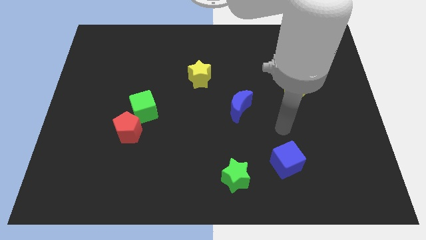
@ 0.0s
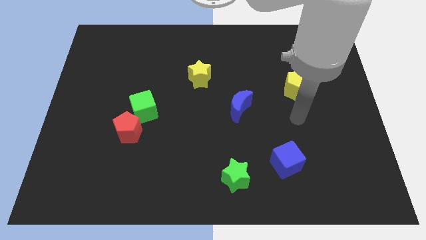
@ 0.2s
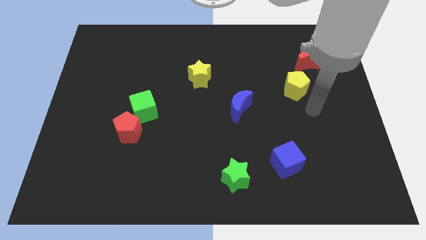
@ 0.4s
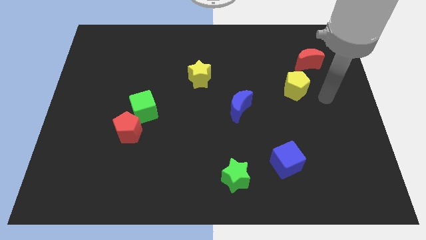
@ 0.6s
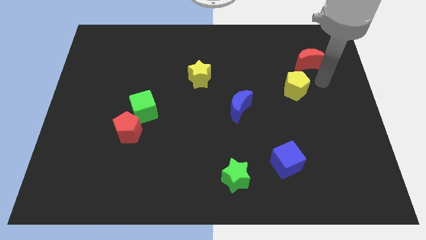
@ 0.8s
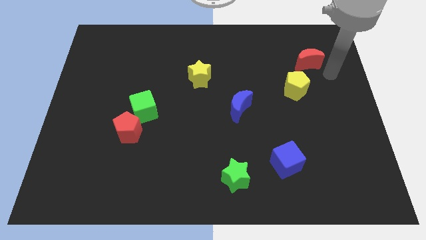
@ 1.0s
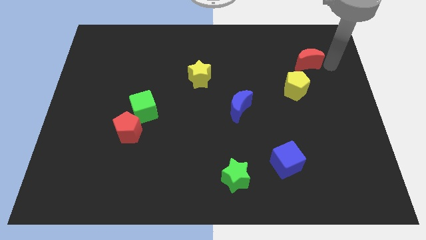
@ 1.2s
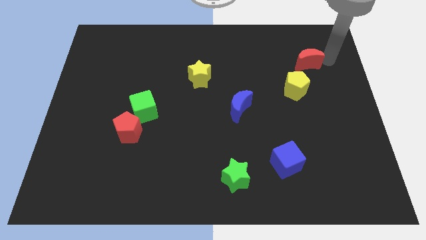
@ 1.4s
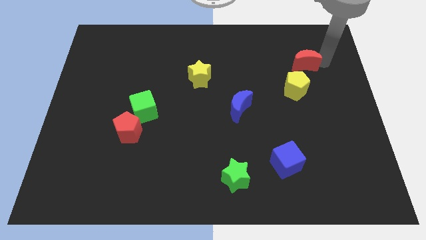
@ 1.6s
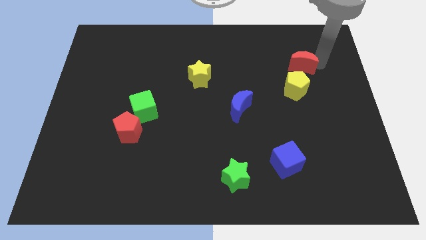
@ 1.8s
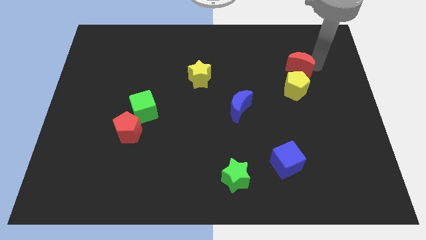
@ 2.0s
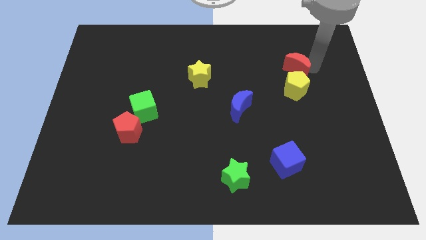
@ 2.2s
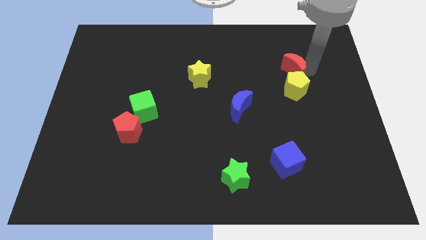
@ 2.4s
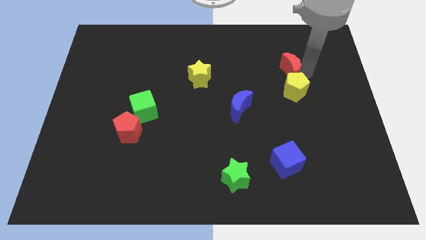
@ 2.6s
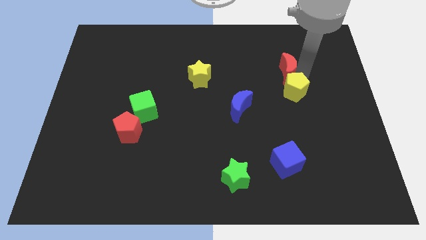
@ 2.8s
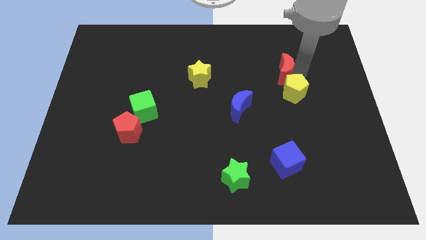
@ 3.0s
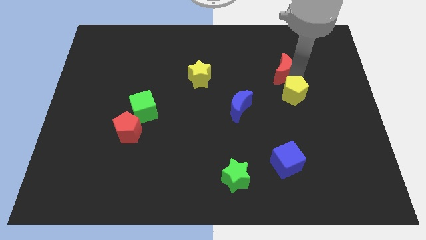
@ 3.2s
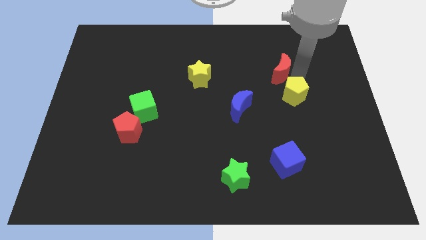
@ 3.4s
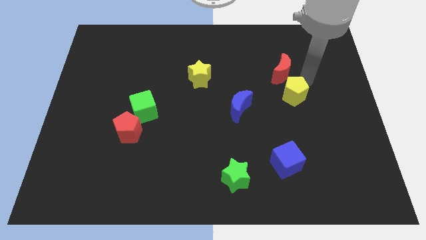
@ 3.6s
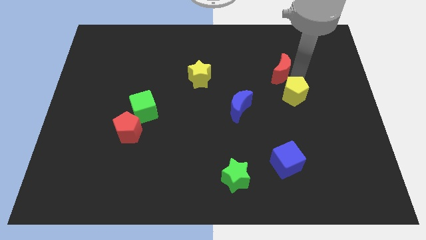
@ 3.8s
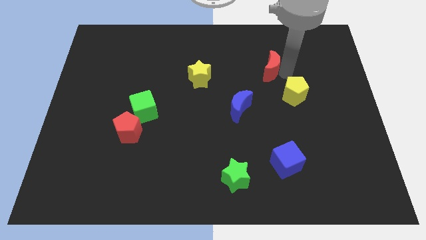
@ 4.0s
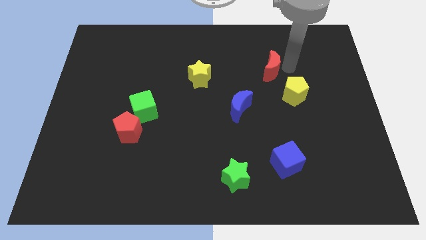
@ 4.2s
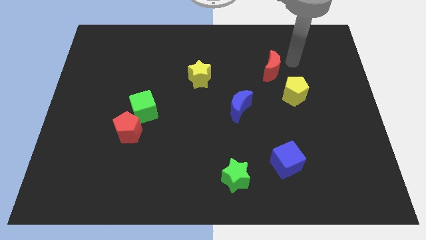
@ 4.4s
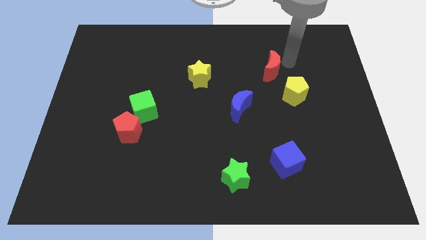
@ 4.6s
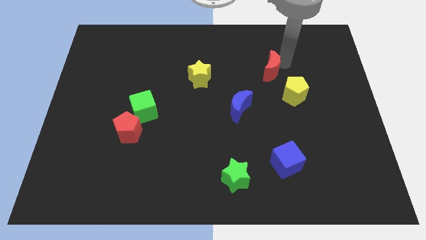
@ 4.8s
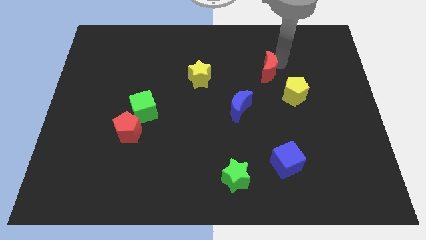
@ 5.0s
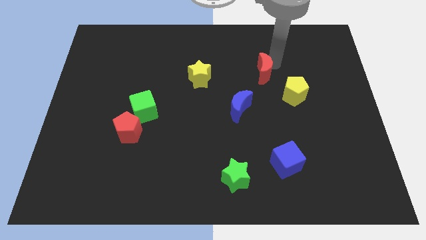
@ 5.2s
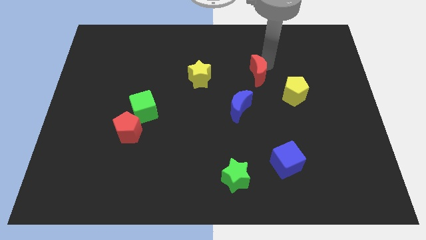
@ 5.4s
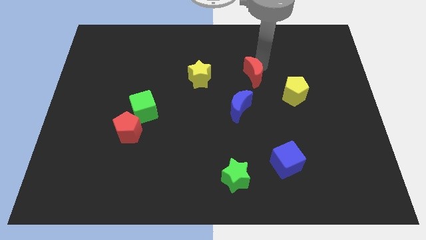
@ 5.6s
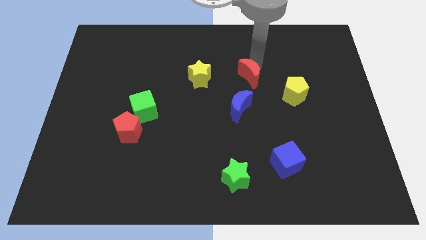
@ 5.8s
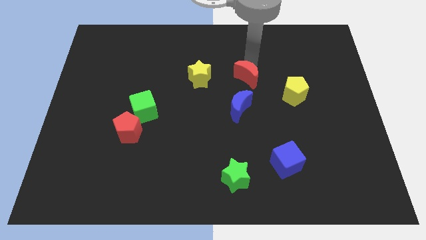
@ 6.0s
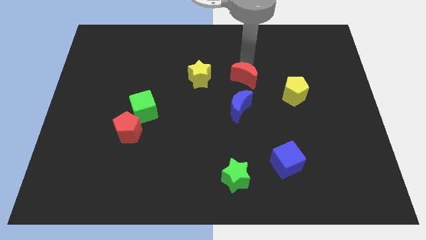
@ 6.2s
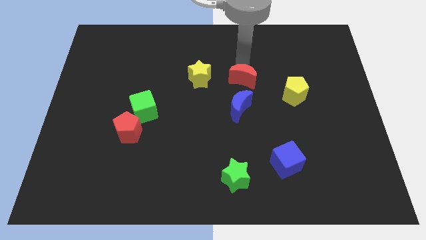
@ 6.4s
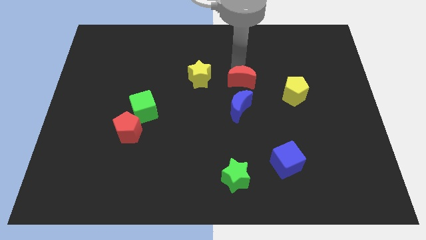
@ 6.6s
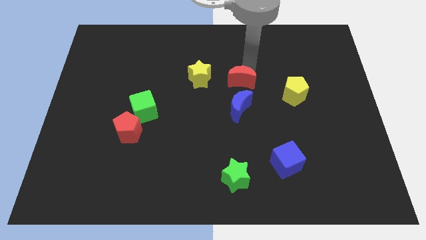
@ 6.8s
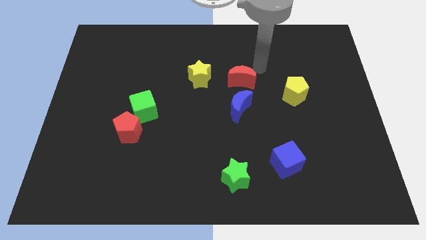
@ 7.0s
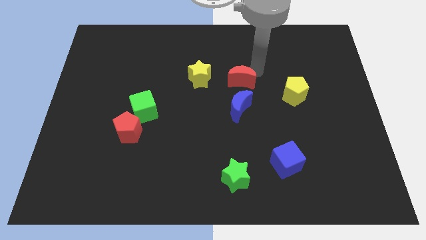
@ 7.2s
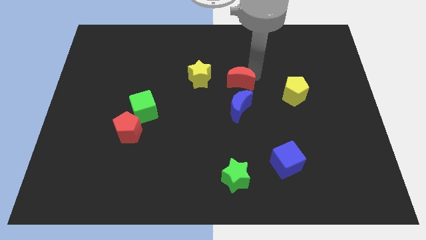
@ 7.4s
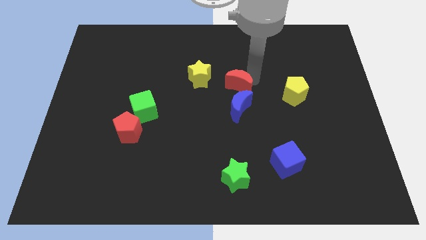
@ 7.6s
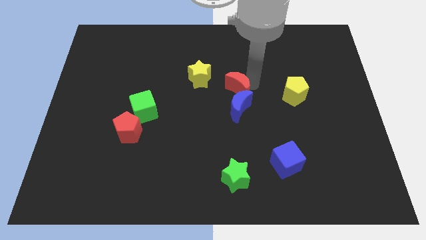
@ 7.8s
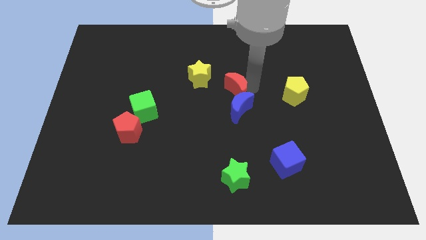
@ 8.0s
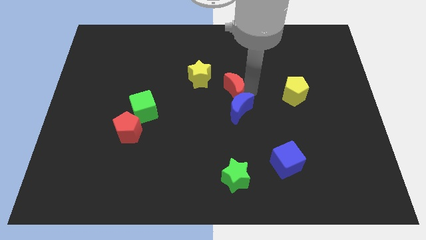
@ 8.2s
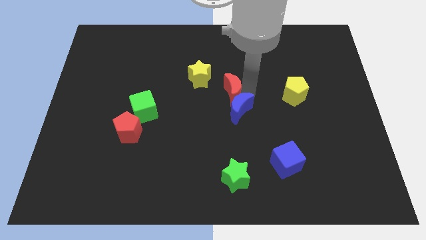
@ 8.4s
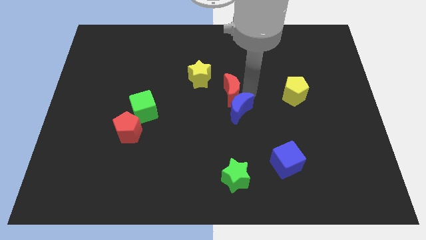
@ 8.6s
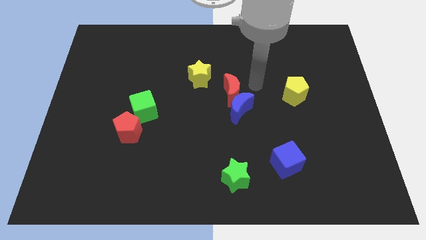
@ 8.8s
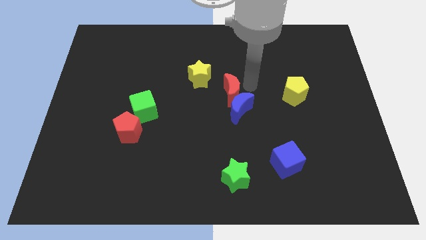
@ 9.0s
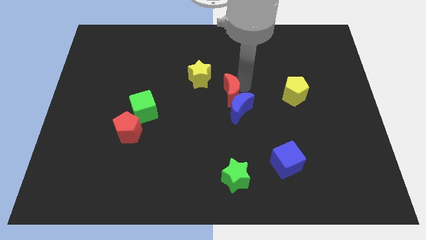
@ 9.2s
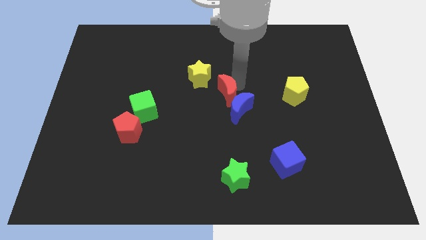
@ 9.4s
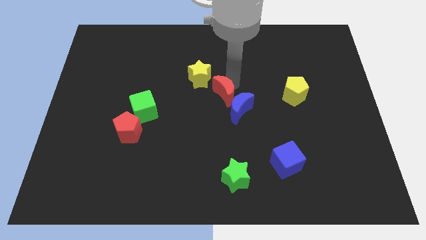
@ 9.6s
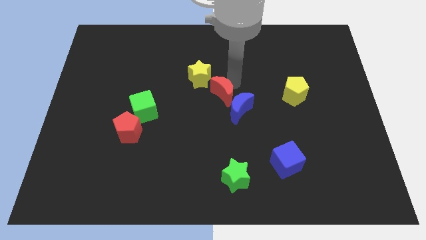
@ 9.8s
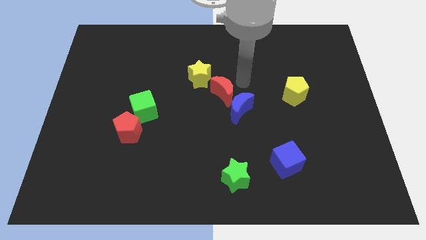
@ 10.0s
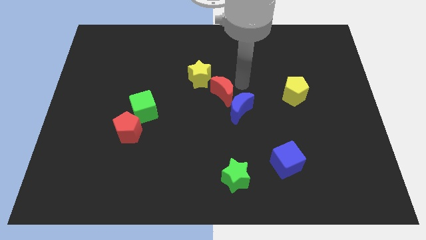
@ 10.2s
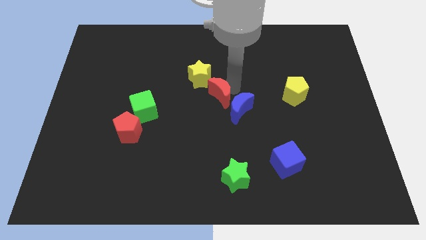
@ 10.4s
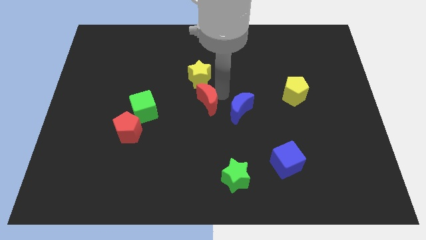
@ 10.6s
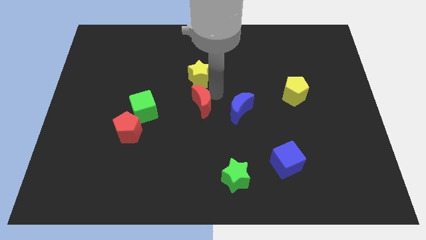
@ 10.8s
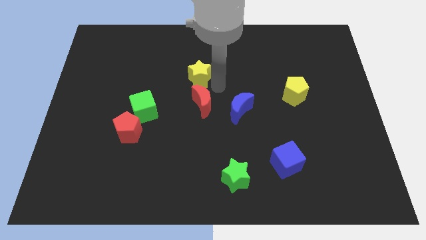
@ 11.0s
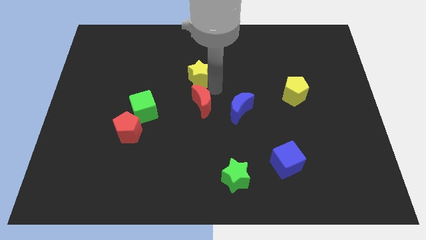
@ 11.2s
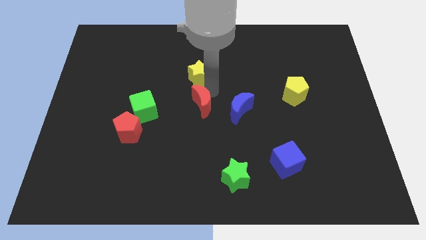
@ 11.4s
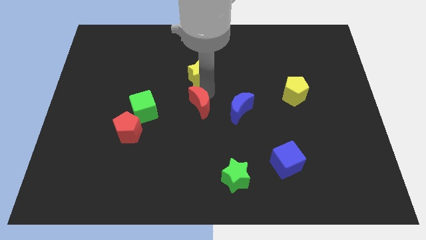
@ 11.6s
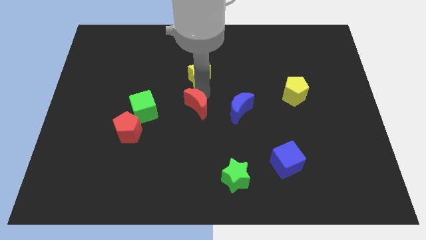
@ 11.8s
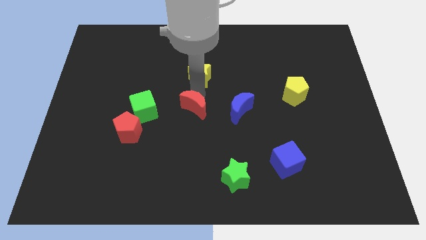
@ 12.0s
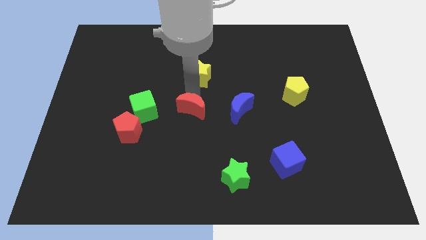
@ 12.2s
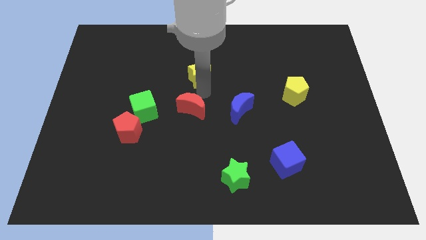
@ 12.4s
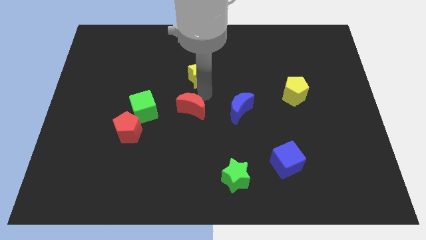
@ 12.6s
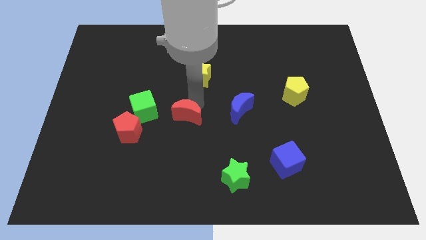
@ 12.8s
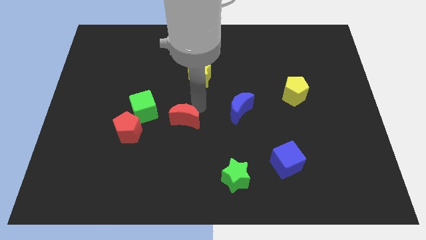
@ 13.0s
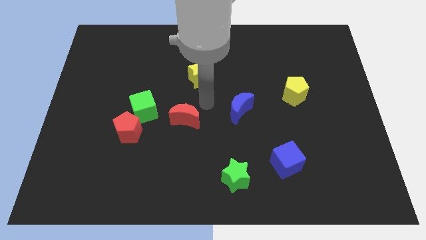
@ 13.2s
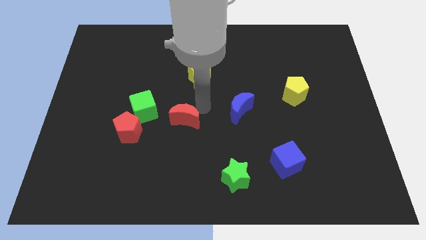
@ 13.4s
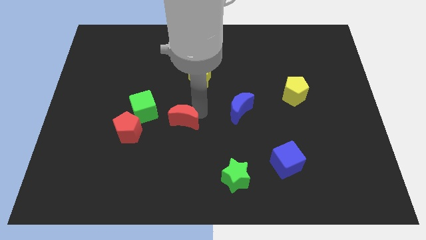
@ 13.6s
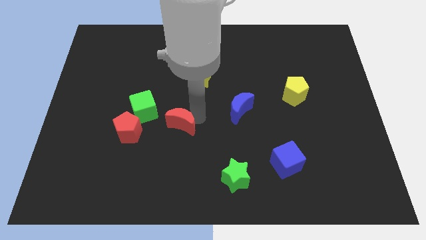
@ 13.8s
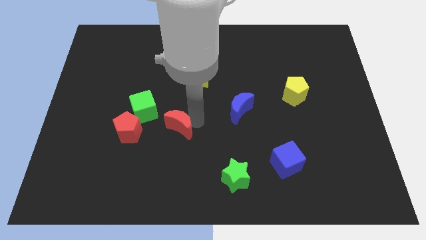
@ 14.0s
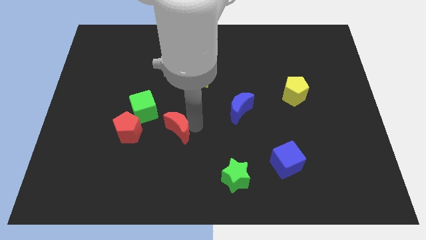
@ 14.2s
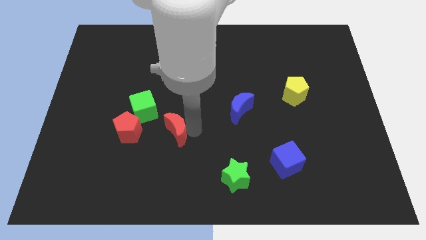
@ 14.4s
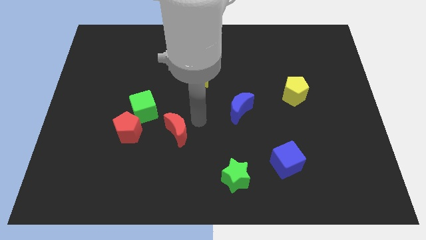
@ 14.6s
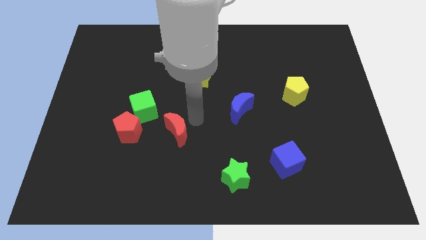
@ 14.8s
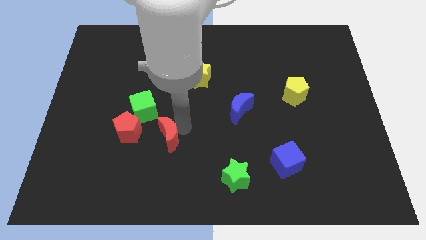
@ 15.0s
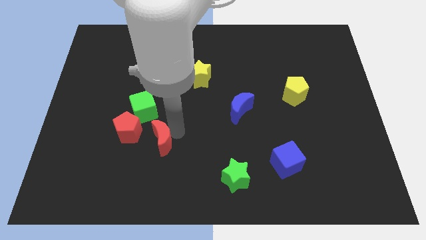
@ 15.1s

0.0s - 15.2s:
move the red moon to the bottom right side of the red pentagon
